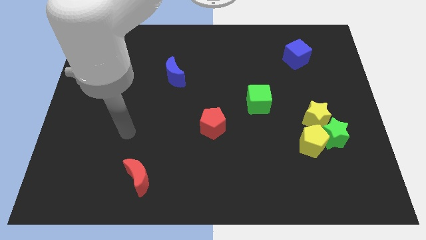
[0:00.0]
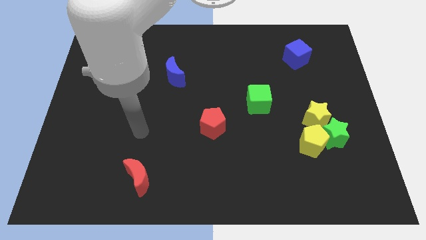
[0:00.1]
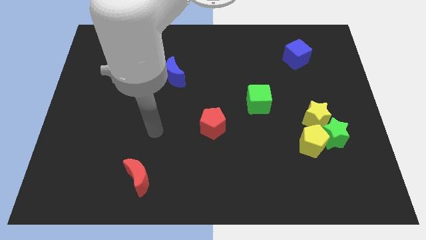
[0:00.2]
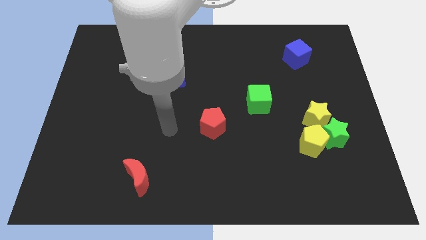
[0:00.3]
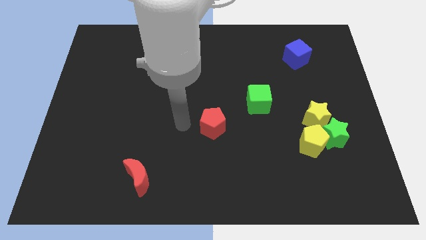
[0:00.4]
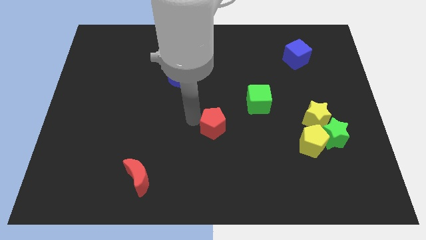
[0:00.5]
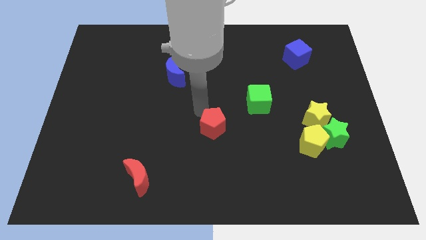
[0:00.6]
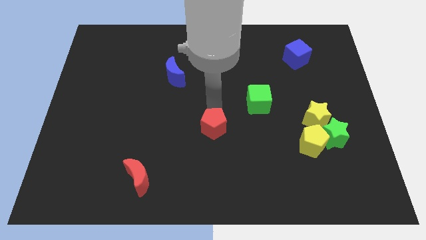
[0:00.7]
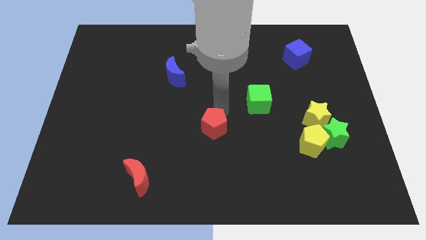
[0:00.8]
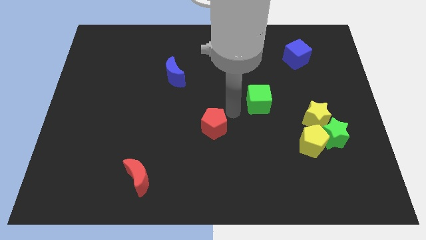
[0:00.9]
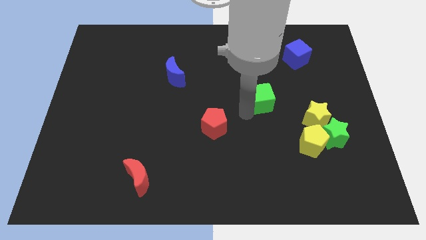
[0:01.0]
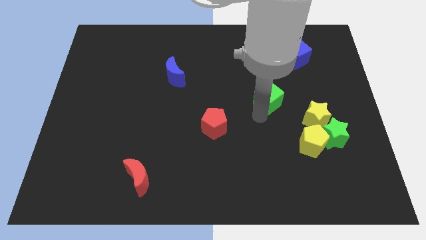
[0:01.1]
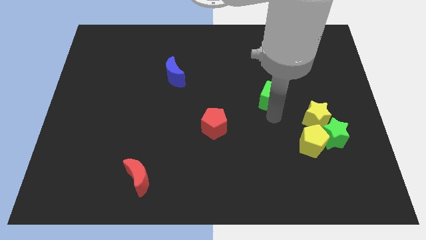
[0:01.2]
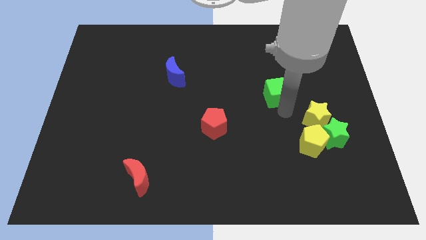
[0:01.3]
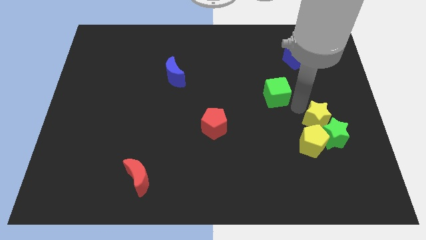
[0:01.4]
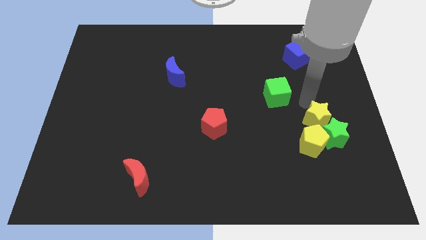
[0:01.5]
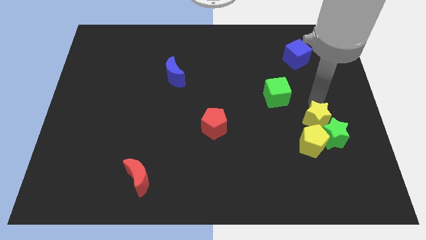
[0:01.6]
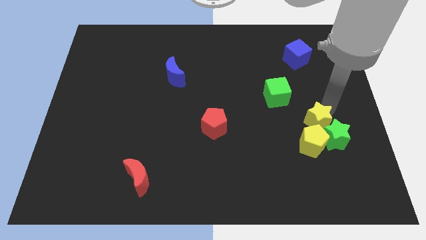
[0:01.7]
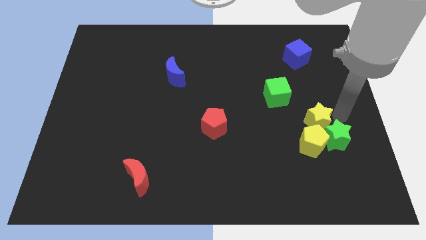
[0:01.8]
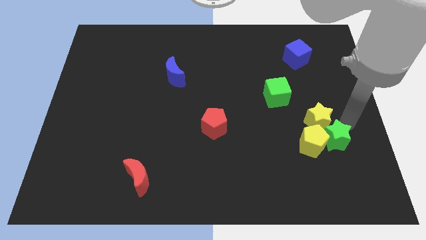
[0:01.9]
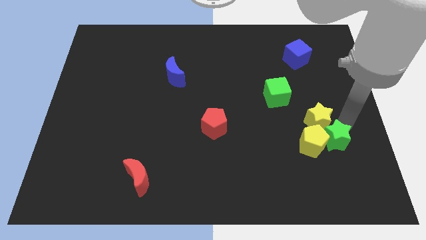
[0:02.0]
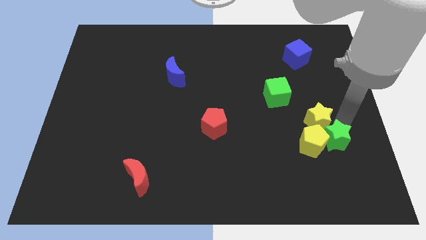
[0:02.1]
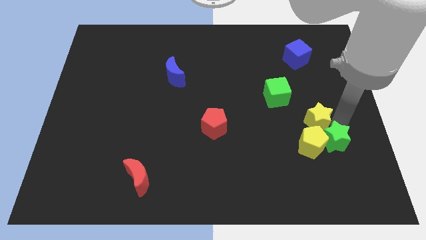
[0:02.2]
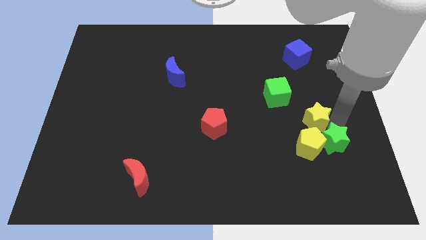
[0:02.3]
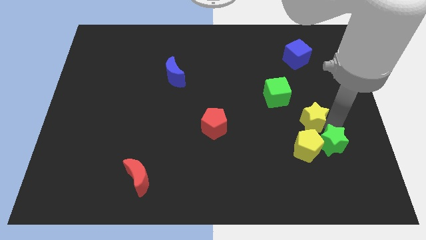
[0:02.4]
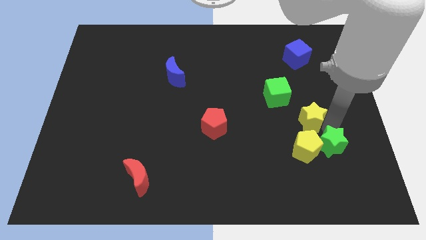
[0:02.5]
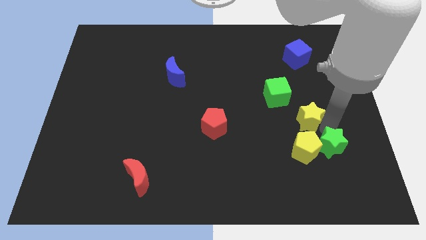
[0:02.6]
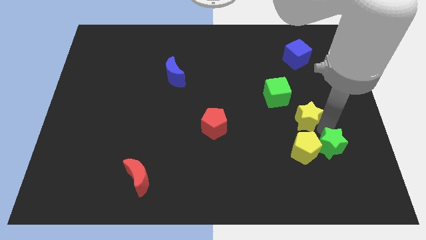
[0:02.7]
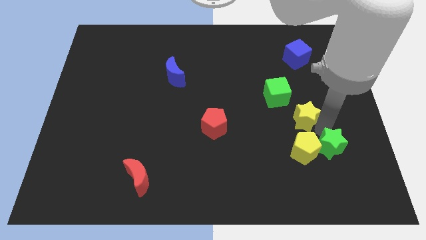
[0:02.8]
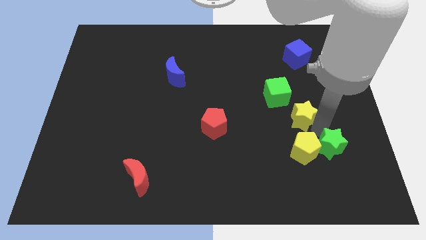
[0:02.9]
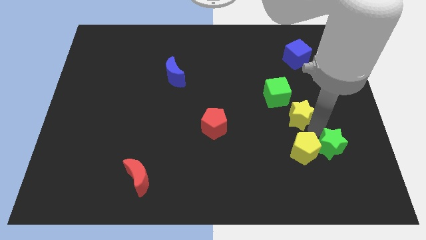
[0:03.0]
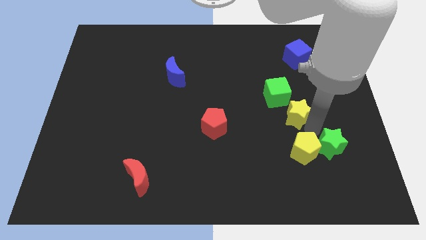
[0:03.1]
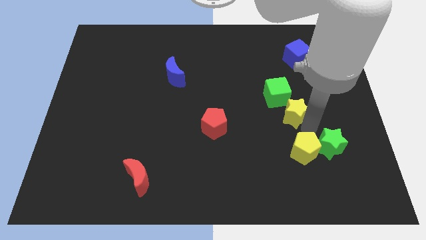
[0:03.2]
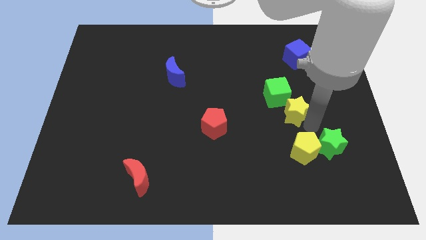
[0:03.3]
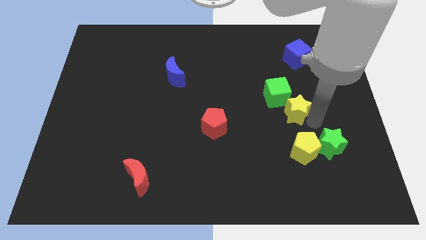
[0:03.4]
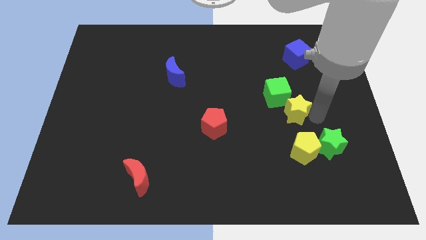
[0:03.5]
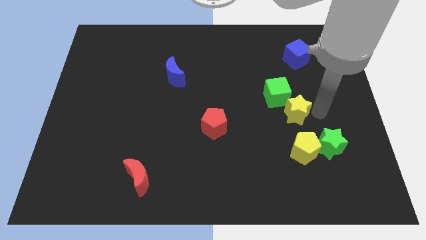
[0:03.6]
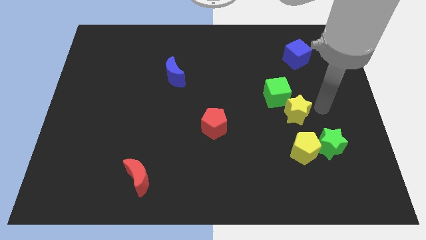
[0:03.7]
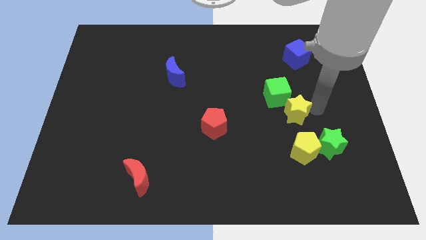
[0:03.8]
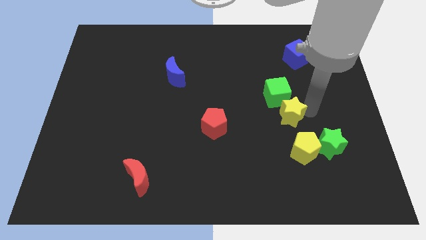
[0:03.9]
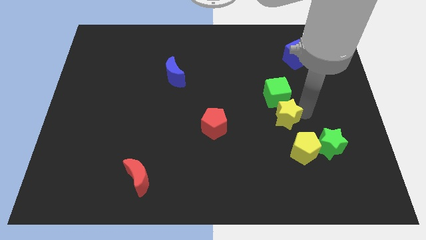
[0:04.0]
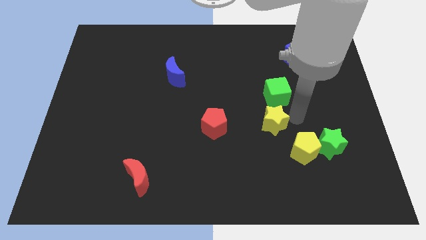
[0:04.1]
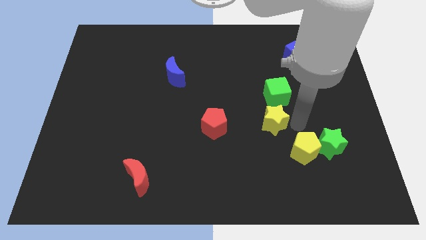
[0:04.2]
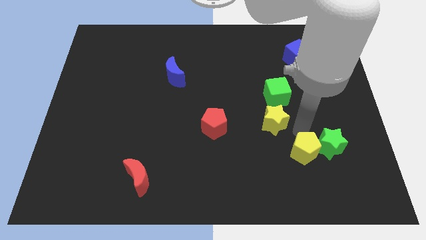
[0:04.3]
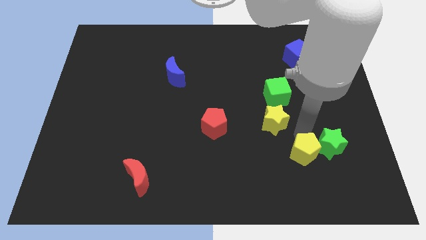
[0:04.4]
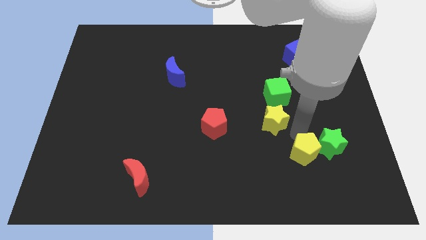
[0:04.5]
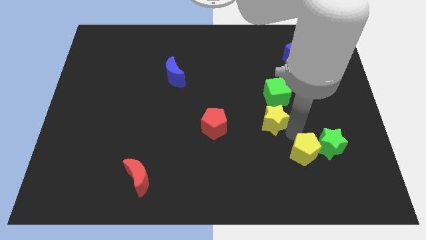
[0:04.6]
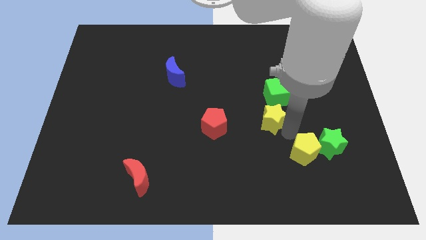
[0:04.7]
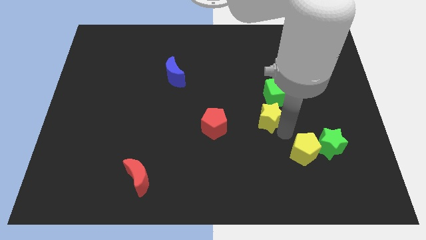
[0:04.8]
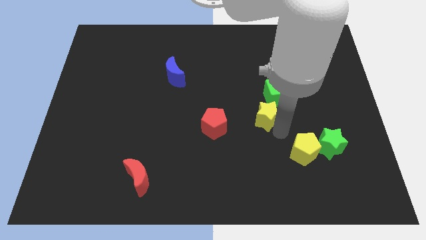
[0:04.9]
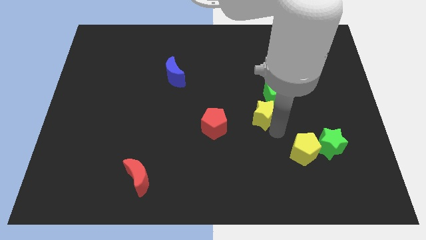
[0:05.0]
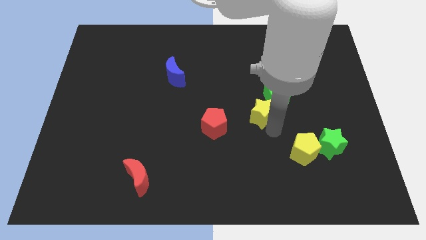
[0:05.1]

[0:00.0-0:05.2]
move the yellow star to the center of the board
